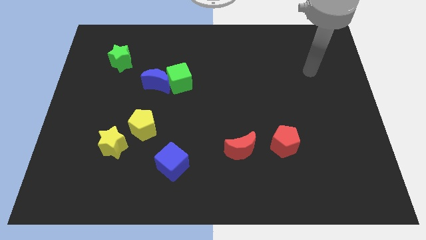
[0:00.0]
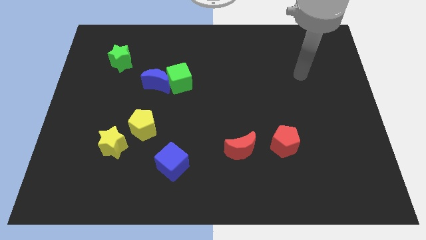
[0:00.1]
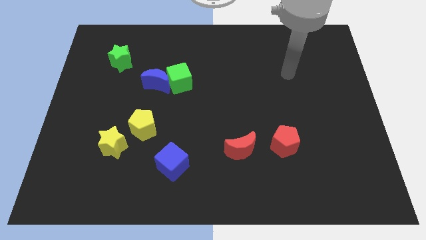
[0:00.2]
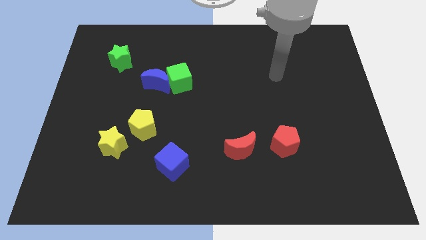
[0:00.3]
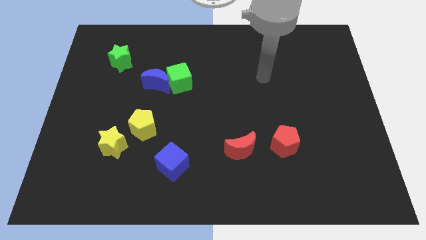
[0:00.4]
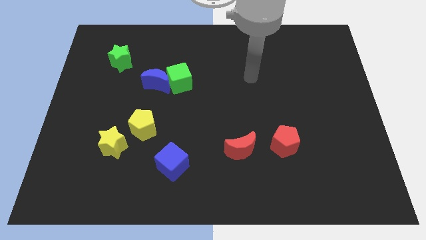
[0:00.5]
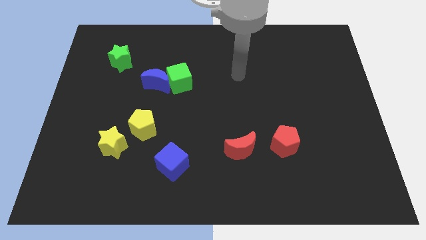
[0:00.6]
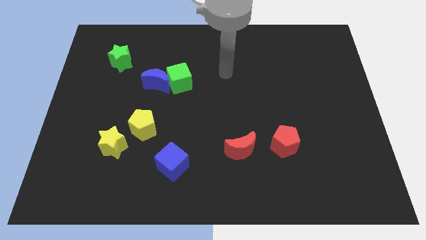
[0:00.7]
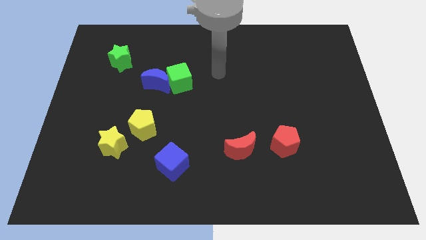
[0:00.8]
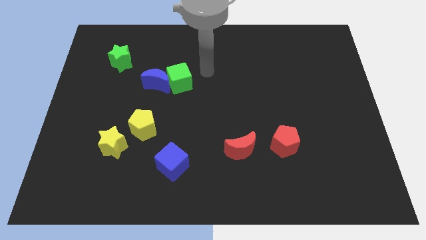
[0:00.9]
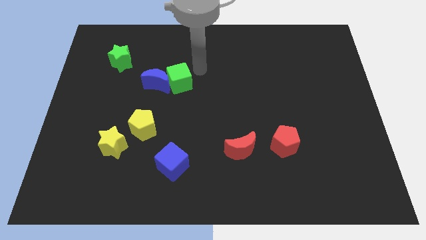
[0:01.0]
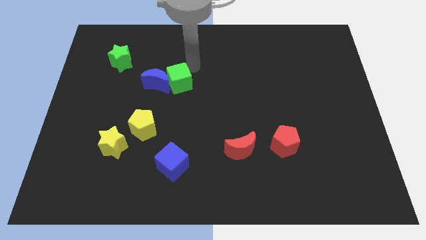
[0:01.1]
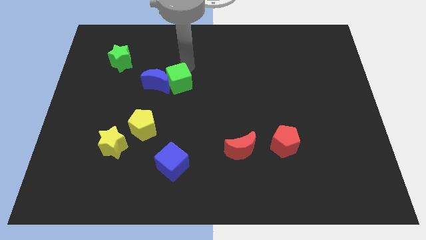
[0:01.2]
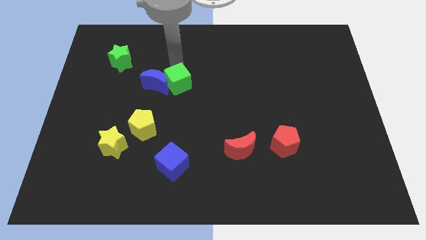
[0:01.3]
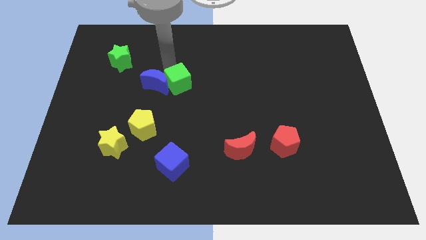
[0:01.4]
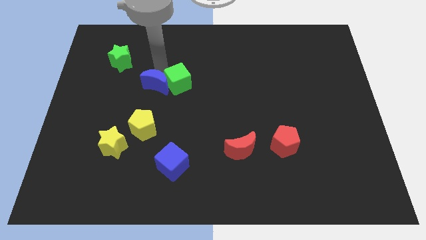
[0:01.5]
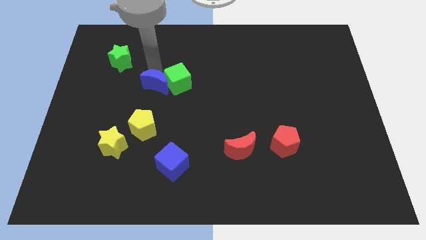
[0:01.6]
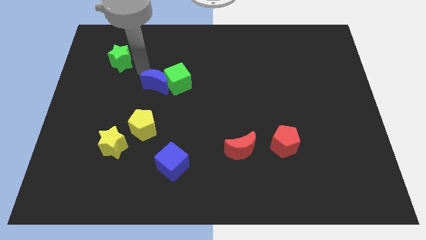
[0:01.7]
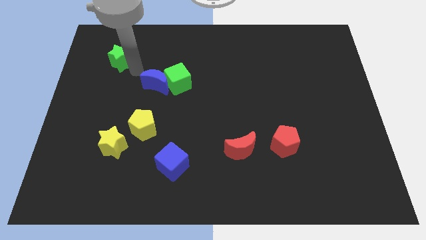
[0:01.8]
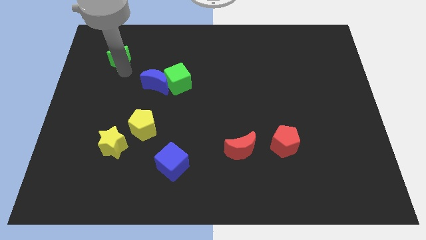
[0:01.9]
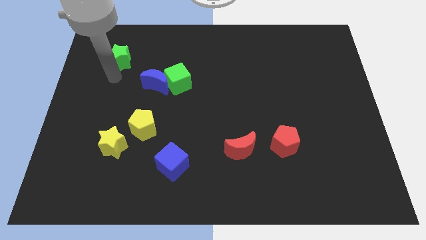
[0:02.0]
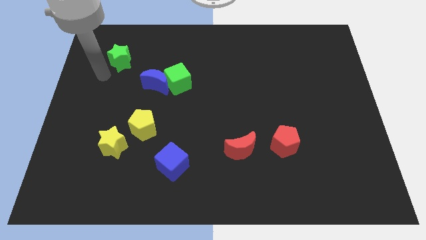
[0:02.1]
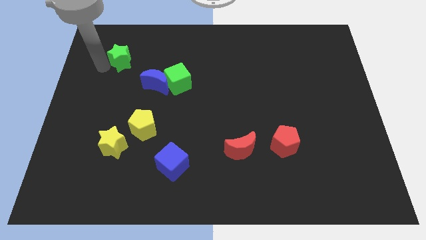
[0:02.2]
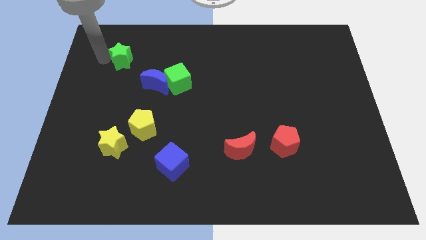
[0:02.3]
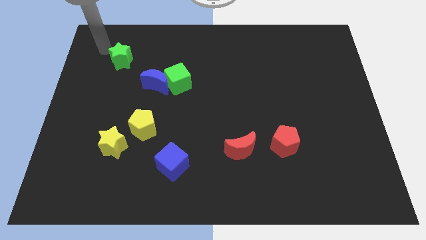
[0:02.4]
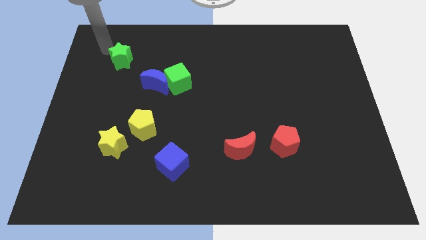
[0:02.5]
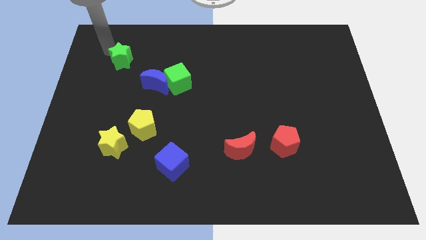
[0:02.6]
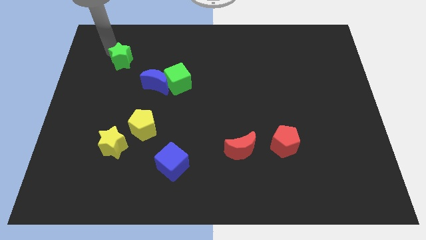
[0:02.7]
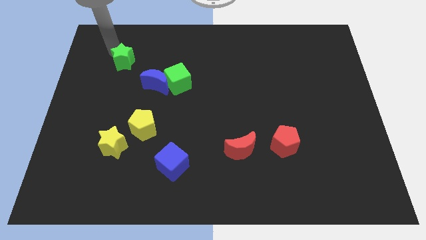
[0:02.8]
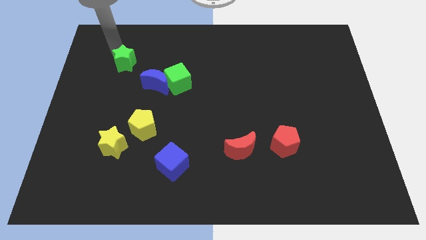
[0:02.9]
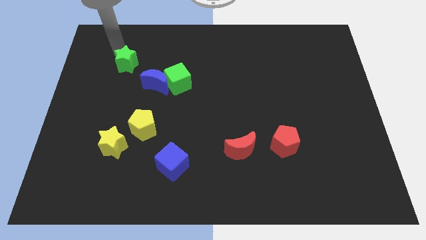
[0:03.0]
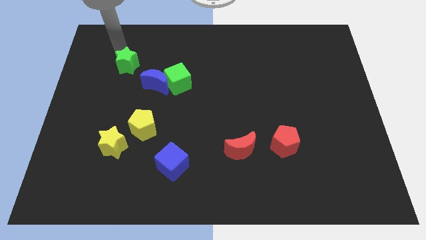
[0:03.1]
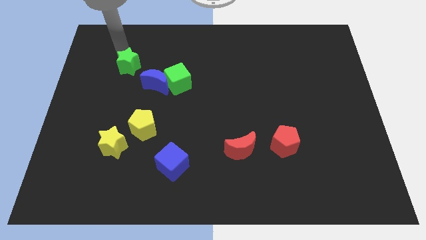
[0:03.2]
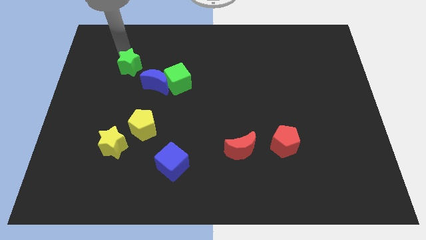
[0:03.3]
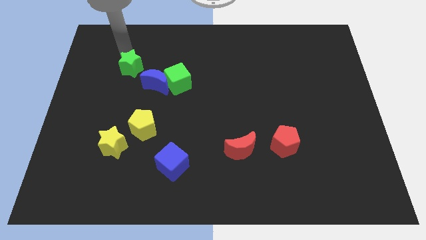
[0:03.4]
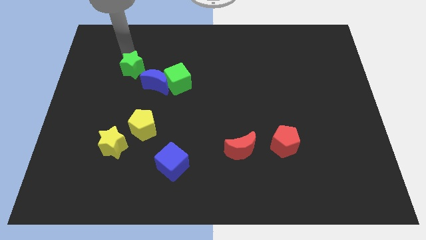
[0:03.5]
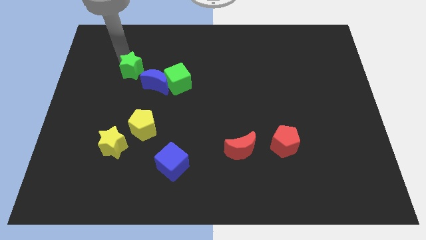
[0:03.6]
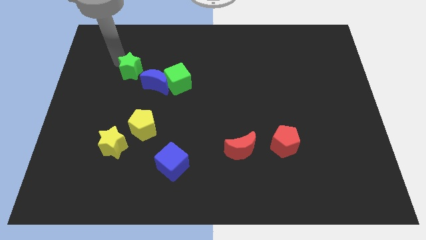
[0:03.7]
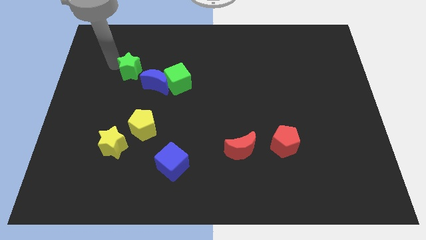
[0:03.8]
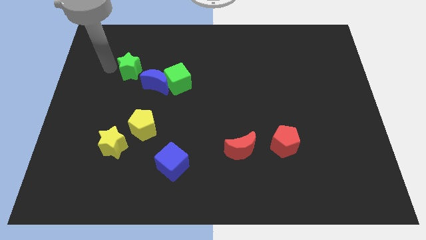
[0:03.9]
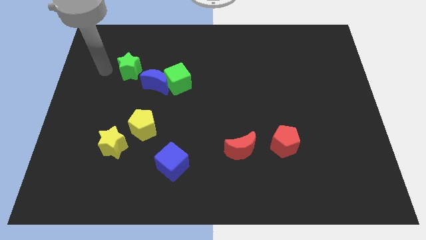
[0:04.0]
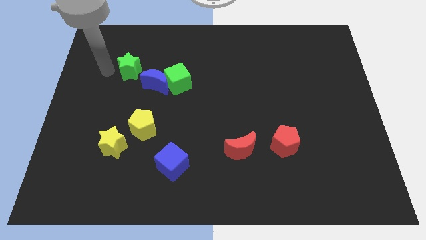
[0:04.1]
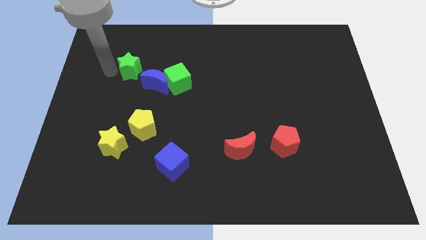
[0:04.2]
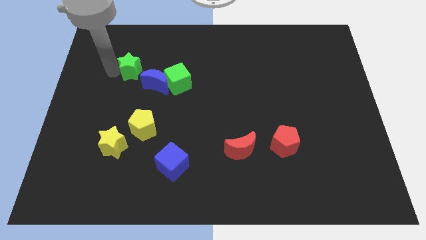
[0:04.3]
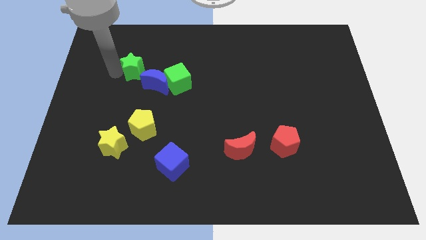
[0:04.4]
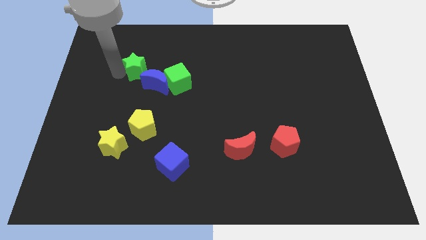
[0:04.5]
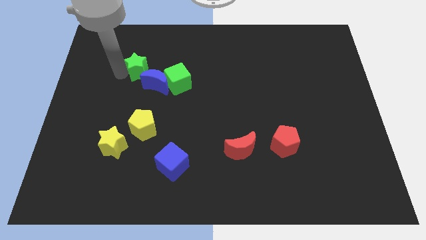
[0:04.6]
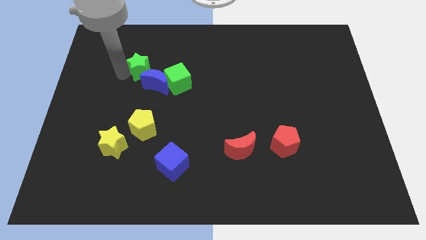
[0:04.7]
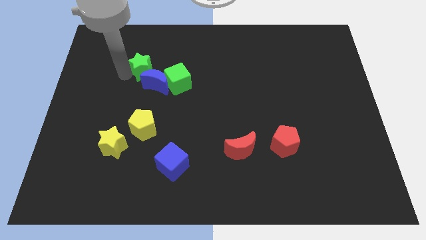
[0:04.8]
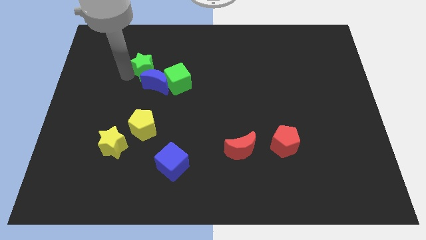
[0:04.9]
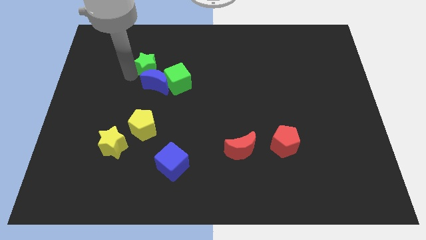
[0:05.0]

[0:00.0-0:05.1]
slightly move the green star right

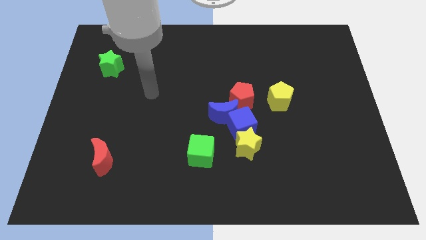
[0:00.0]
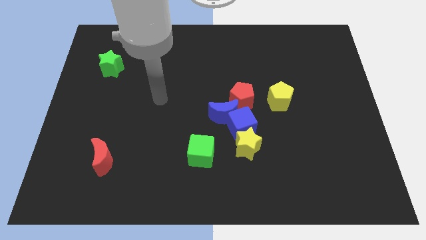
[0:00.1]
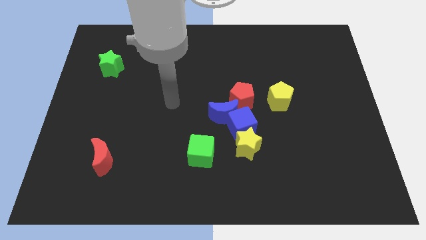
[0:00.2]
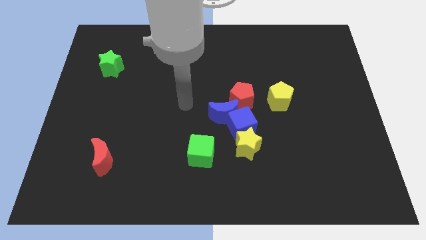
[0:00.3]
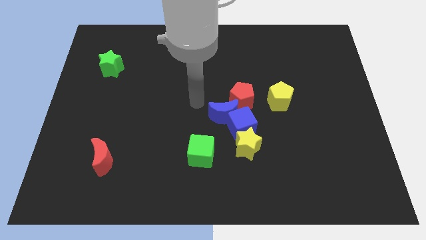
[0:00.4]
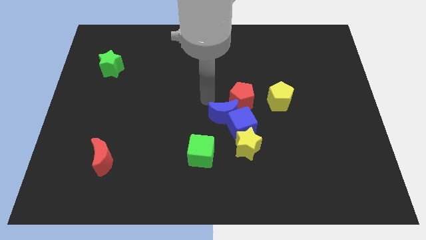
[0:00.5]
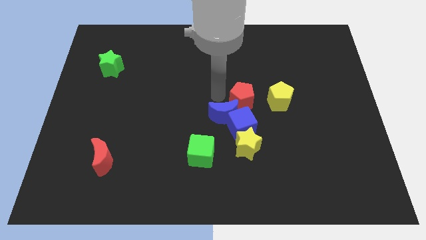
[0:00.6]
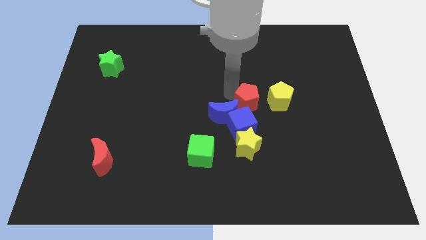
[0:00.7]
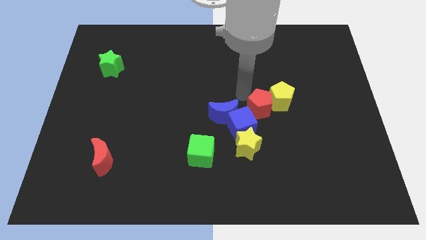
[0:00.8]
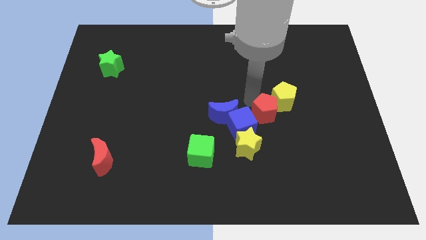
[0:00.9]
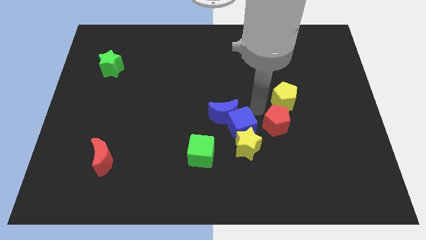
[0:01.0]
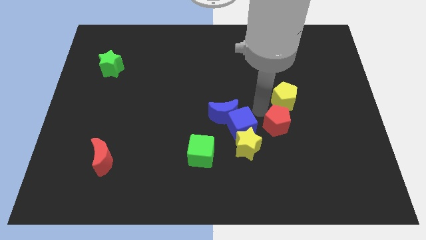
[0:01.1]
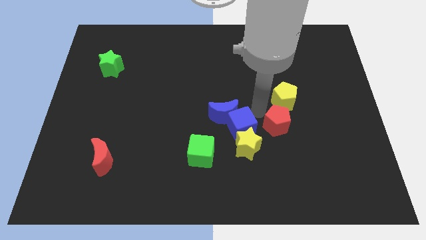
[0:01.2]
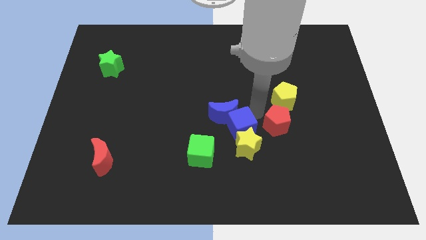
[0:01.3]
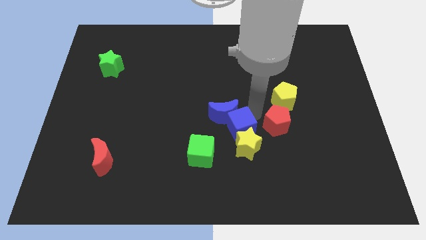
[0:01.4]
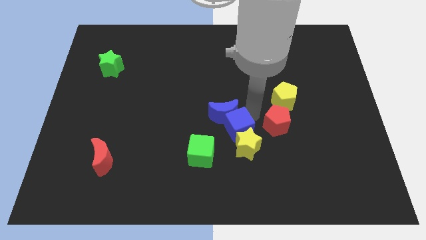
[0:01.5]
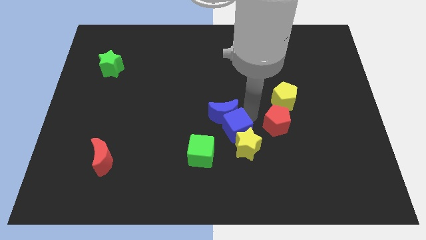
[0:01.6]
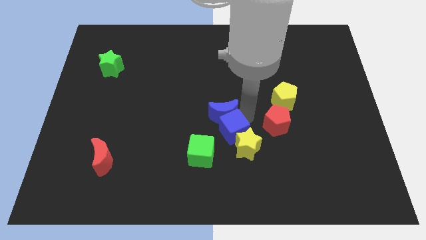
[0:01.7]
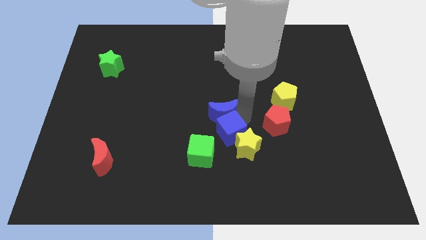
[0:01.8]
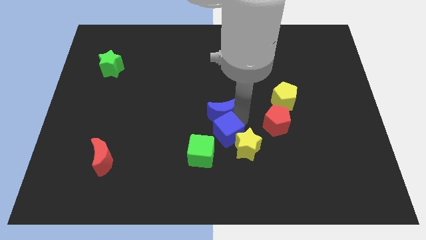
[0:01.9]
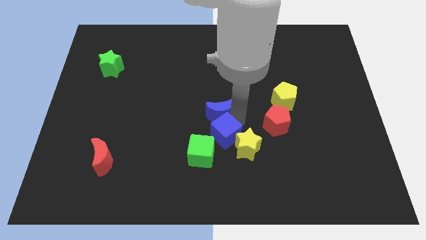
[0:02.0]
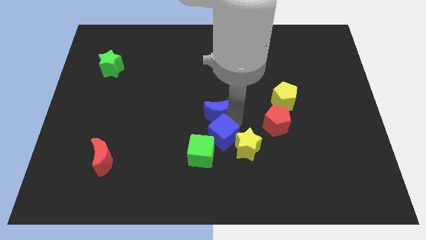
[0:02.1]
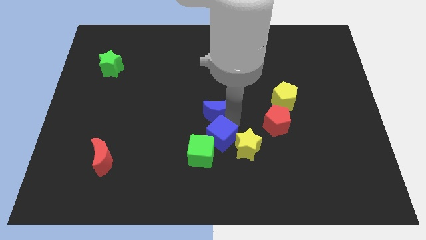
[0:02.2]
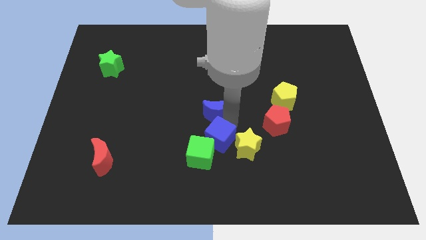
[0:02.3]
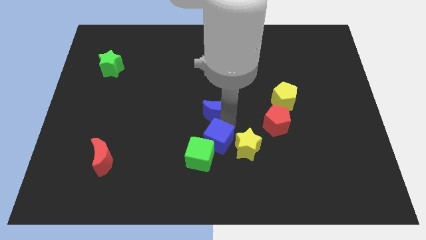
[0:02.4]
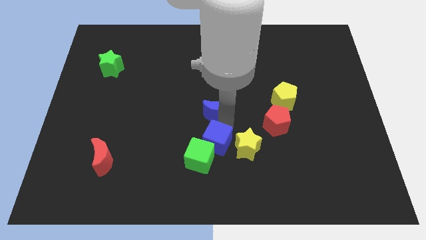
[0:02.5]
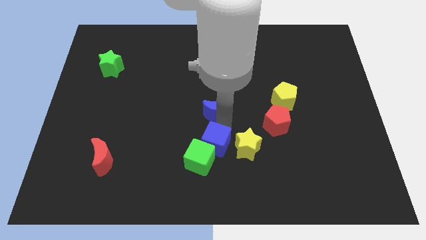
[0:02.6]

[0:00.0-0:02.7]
slightly move the blue cube down and then left
